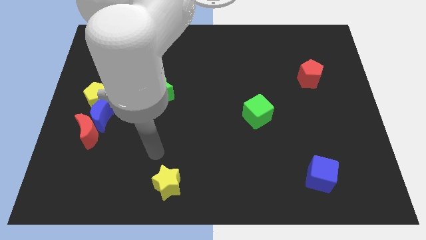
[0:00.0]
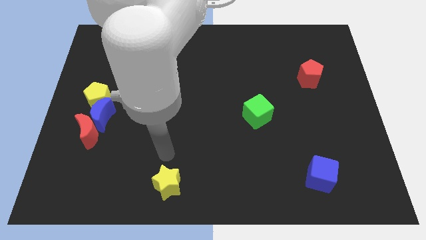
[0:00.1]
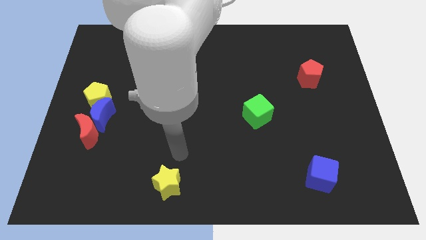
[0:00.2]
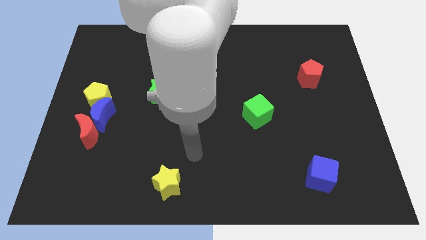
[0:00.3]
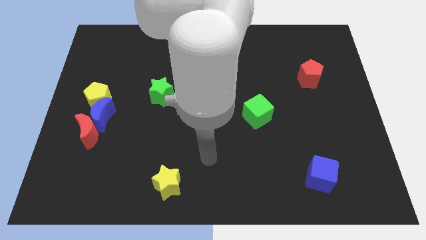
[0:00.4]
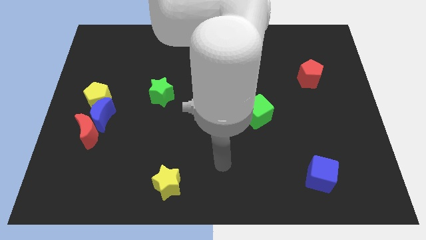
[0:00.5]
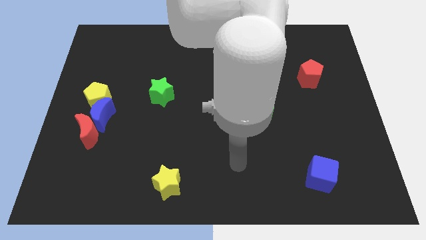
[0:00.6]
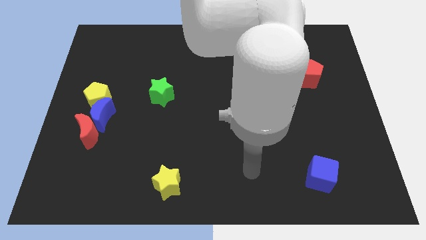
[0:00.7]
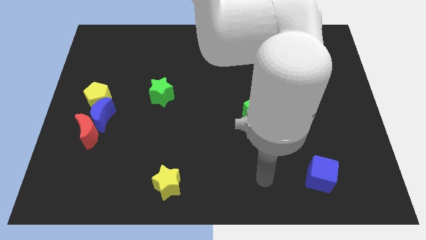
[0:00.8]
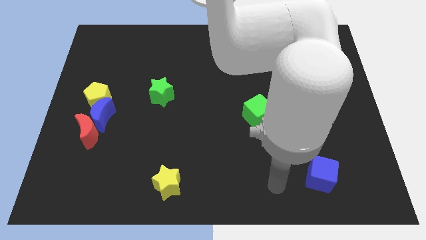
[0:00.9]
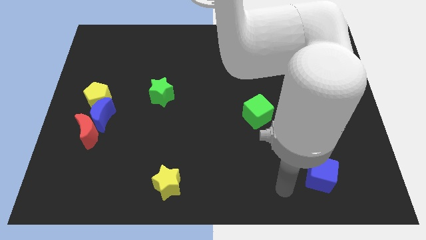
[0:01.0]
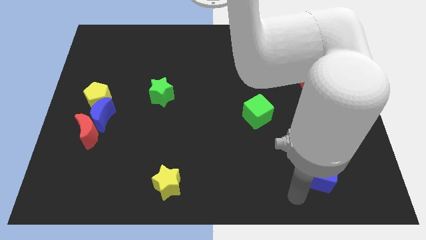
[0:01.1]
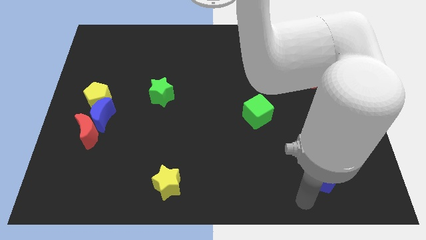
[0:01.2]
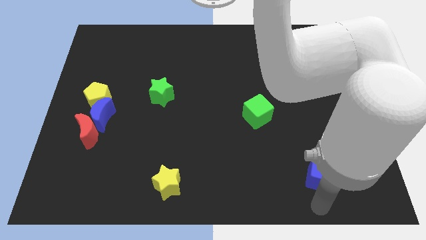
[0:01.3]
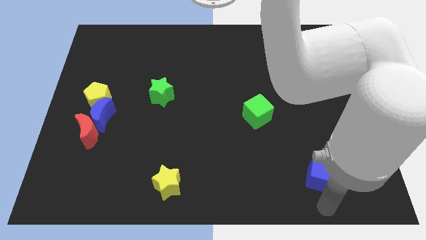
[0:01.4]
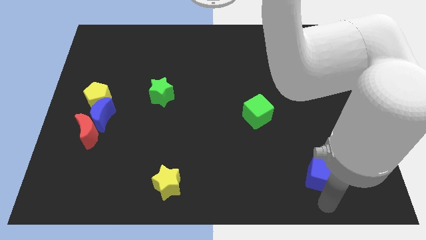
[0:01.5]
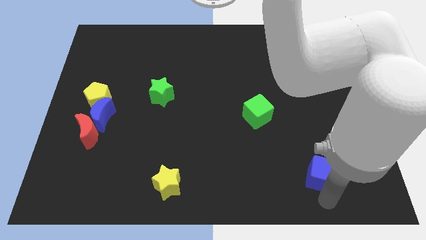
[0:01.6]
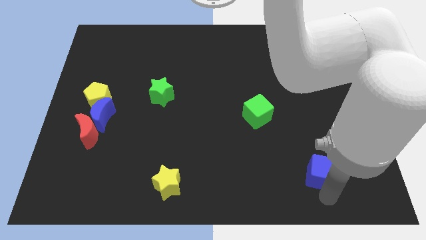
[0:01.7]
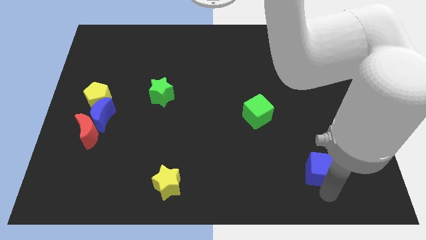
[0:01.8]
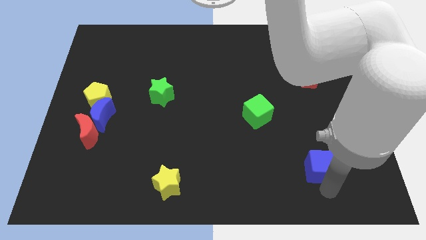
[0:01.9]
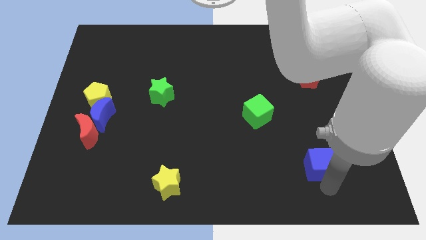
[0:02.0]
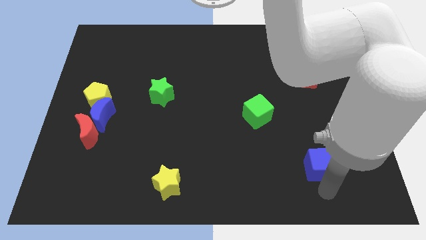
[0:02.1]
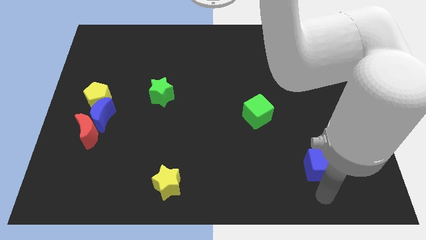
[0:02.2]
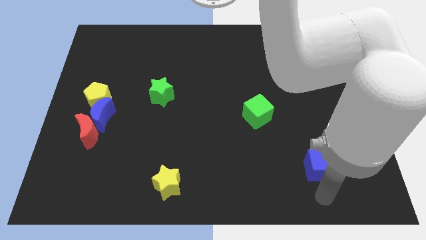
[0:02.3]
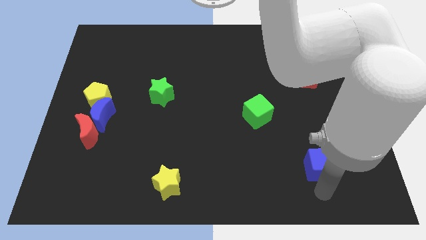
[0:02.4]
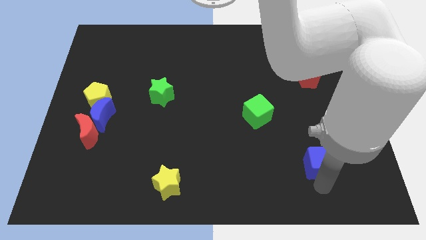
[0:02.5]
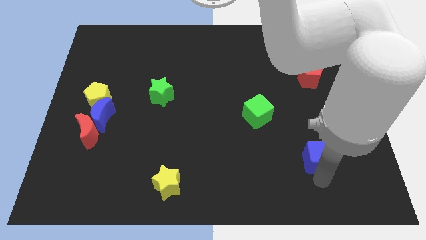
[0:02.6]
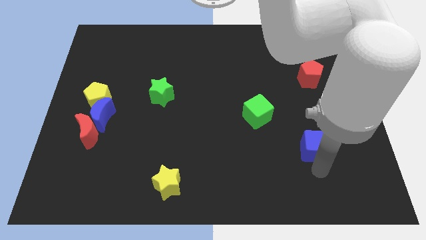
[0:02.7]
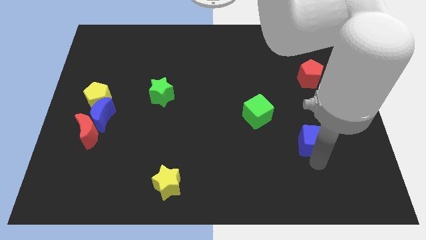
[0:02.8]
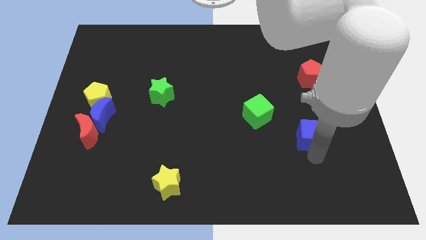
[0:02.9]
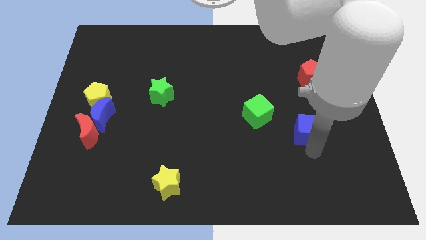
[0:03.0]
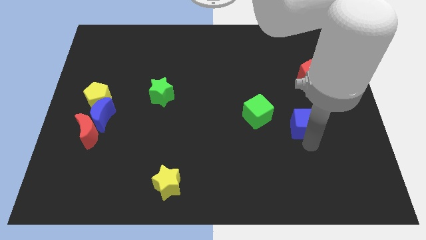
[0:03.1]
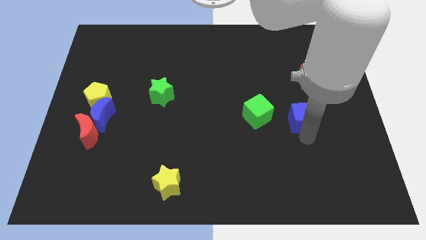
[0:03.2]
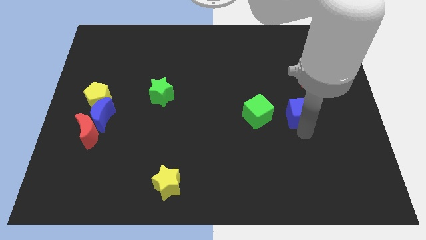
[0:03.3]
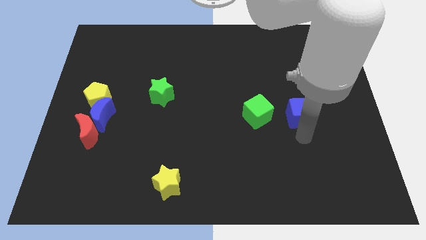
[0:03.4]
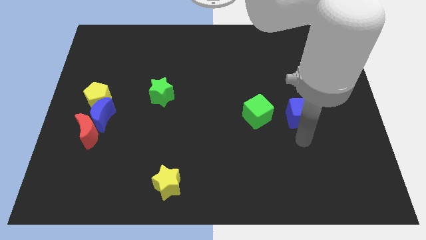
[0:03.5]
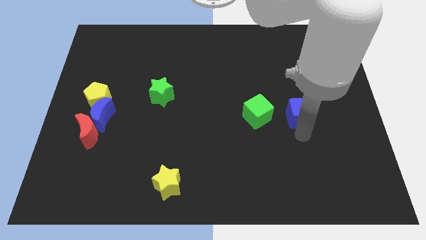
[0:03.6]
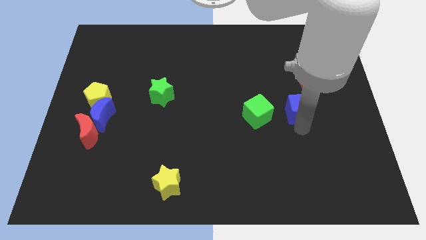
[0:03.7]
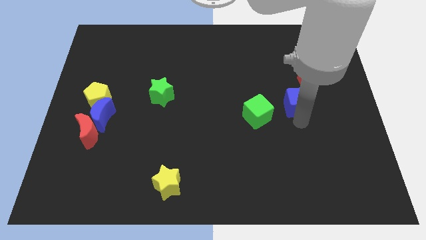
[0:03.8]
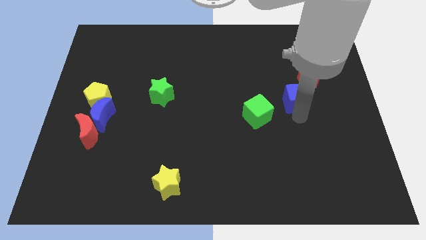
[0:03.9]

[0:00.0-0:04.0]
move the blue cube up

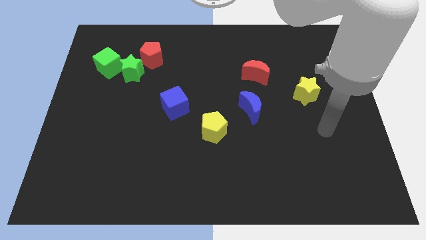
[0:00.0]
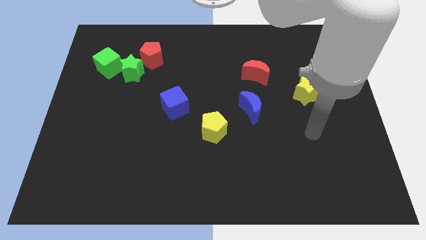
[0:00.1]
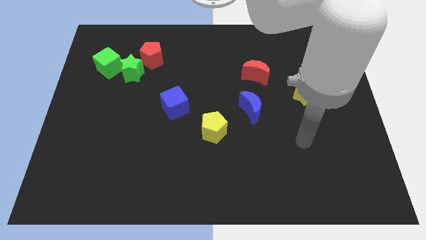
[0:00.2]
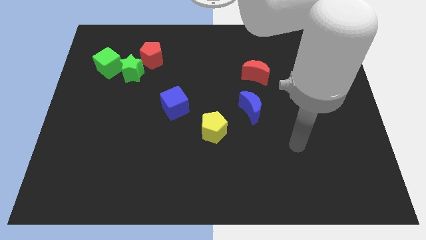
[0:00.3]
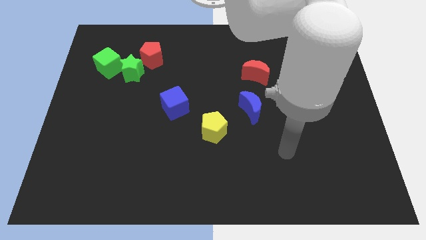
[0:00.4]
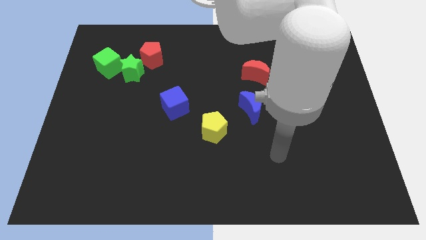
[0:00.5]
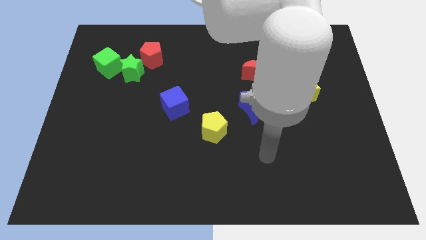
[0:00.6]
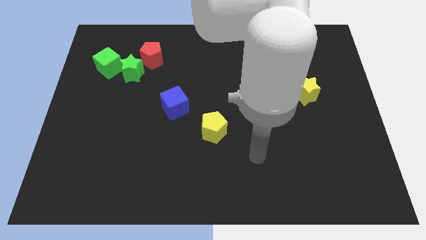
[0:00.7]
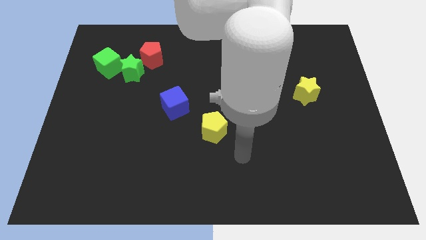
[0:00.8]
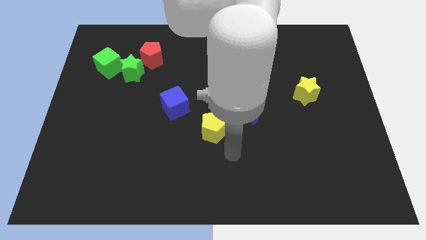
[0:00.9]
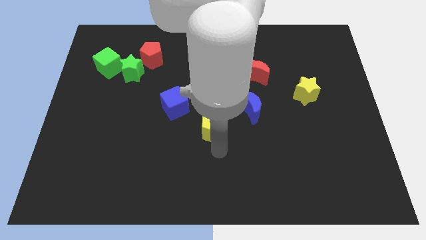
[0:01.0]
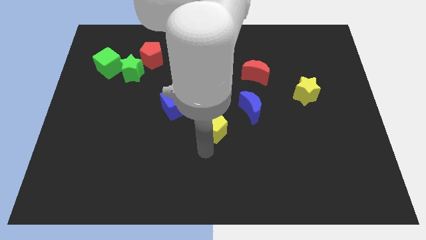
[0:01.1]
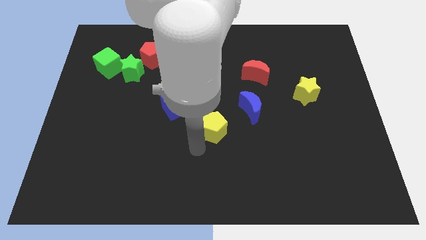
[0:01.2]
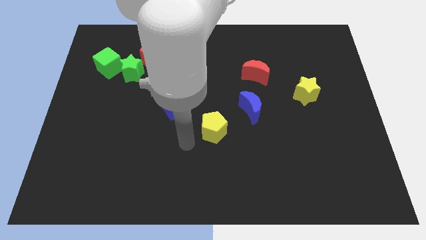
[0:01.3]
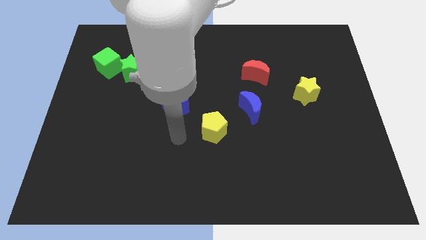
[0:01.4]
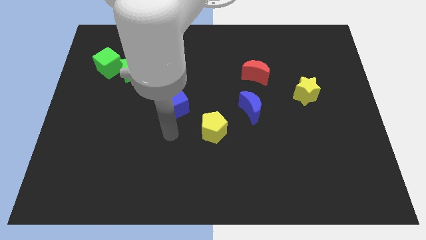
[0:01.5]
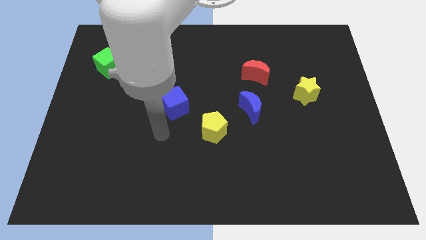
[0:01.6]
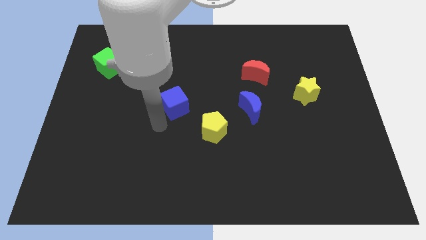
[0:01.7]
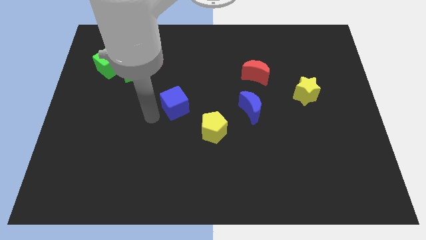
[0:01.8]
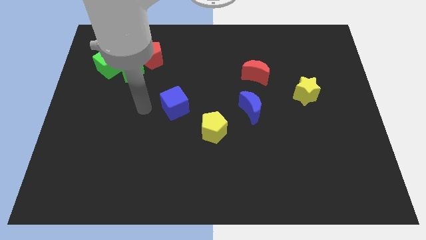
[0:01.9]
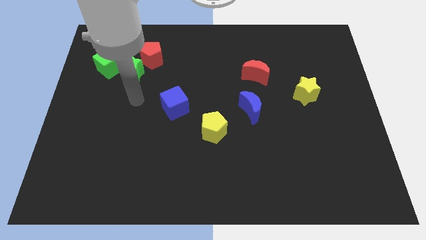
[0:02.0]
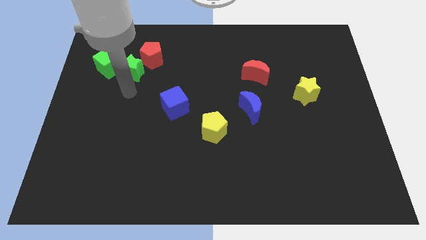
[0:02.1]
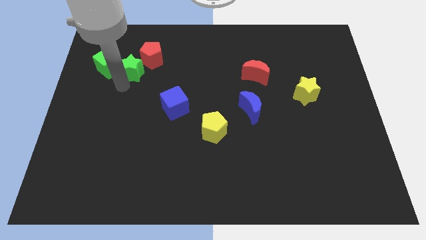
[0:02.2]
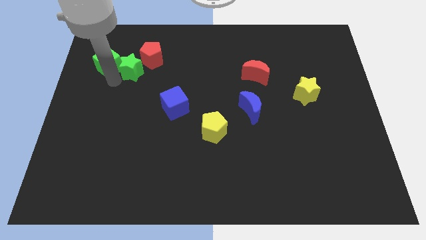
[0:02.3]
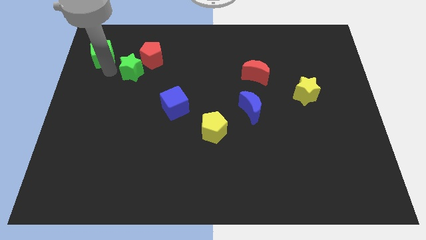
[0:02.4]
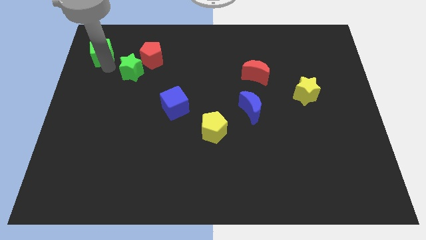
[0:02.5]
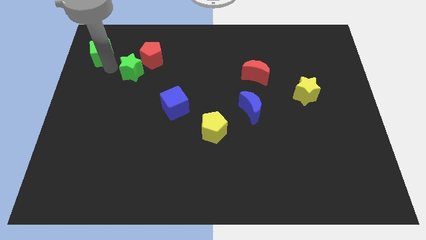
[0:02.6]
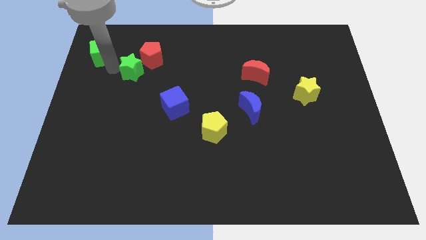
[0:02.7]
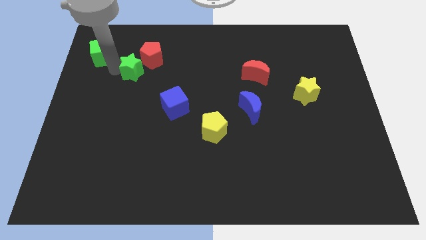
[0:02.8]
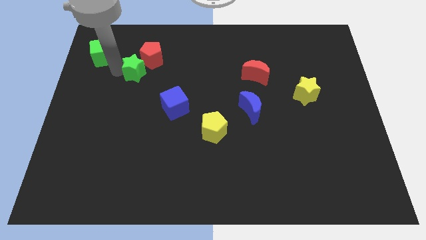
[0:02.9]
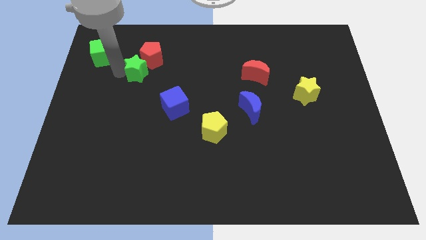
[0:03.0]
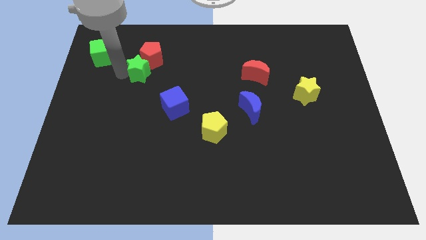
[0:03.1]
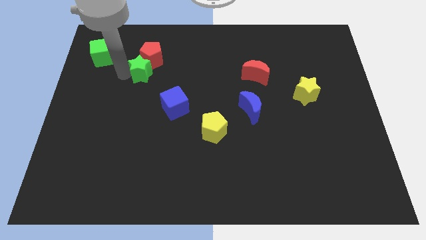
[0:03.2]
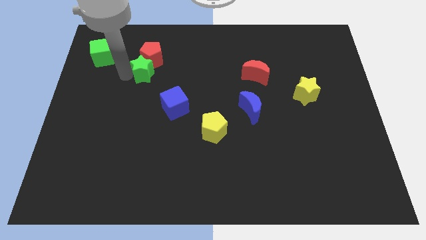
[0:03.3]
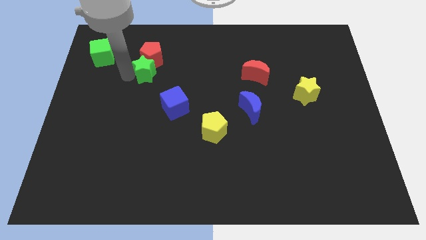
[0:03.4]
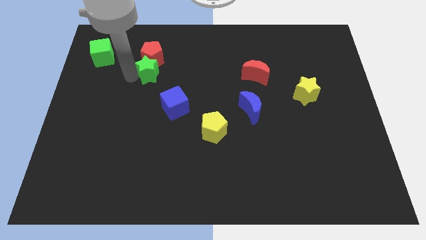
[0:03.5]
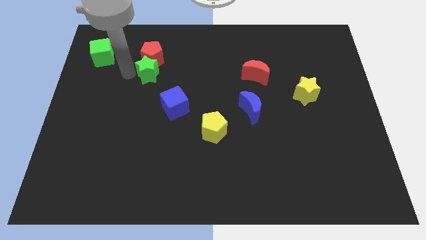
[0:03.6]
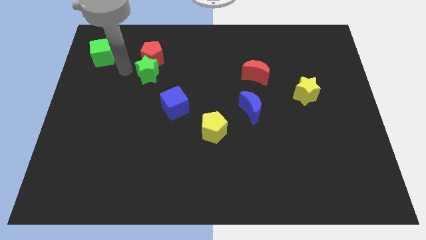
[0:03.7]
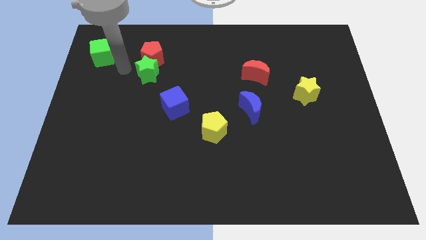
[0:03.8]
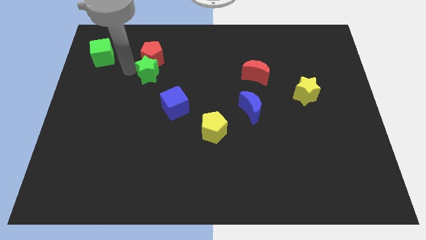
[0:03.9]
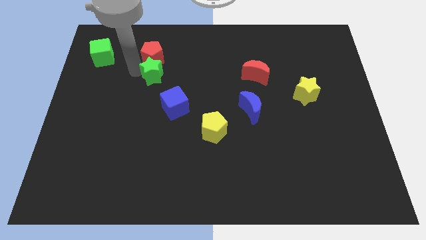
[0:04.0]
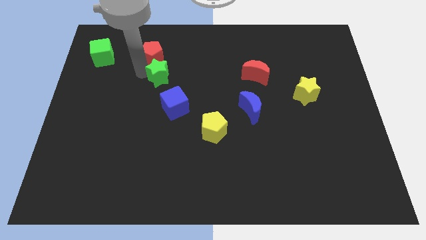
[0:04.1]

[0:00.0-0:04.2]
move the green star a little to the right
